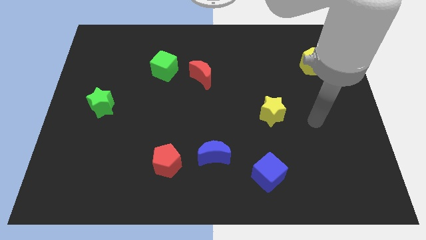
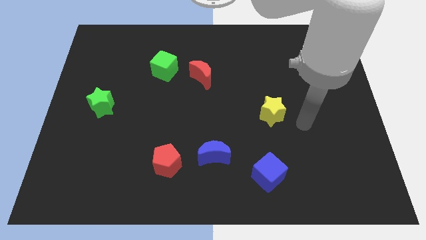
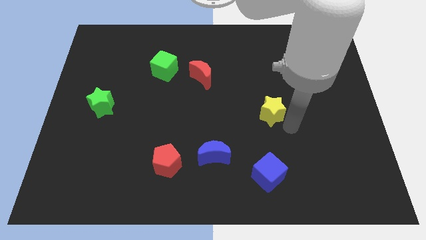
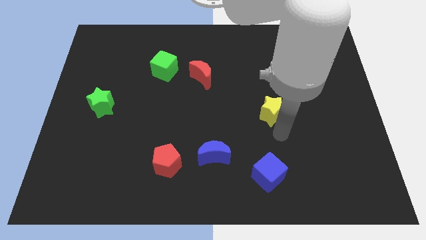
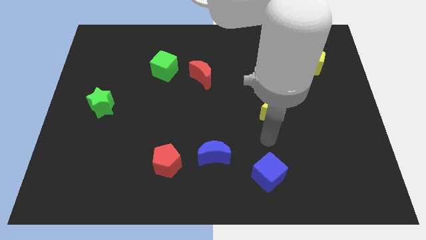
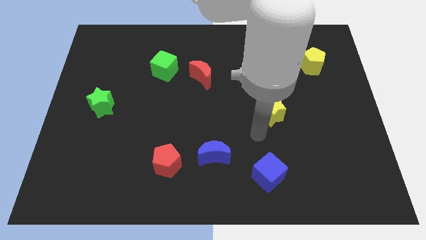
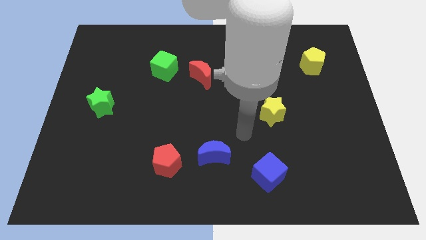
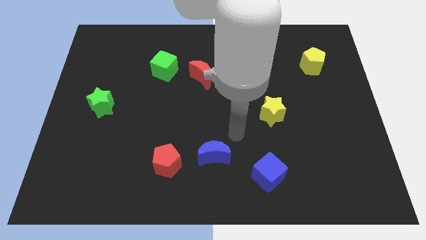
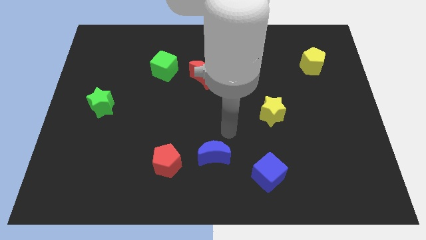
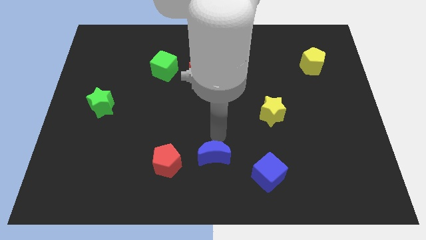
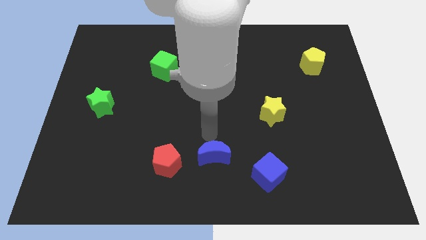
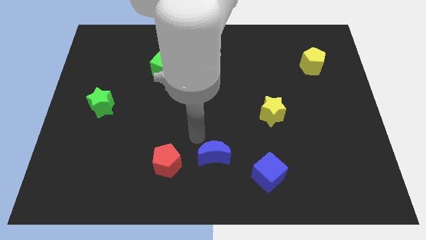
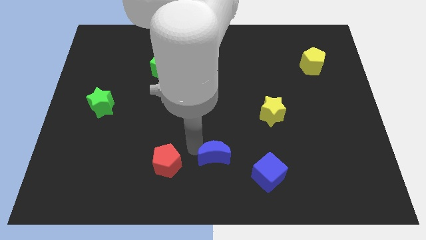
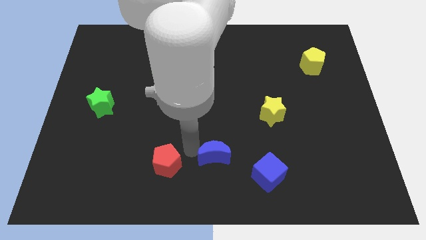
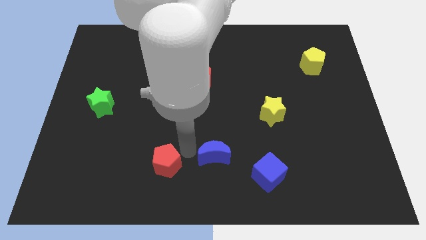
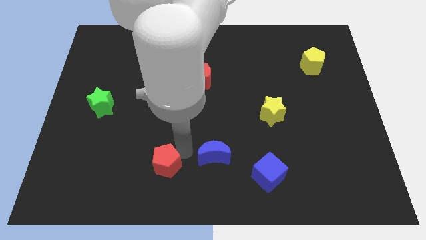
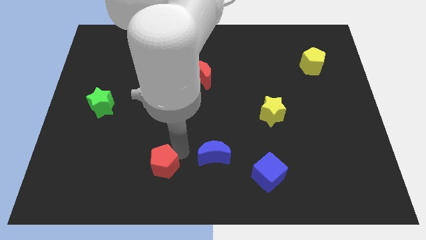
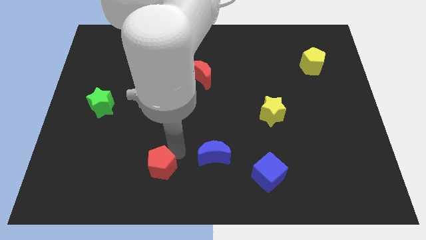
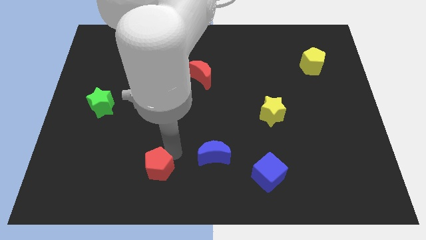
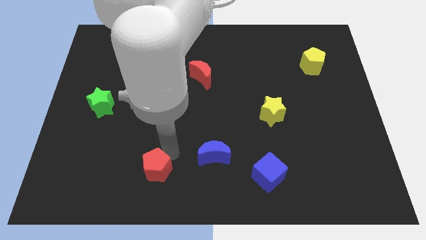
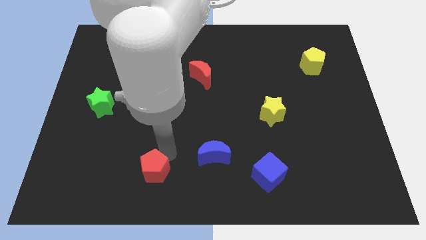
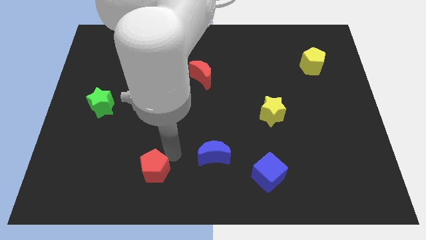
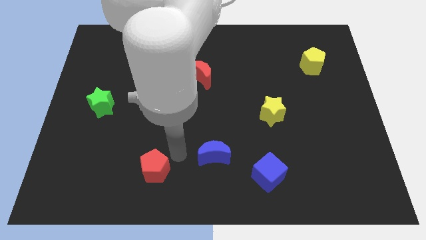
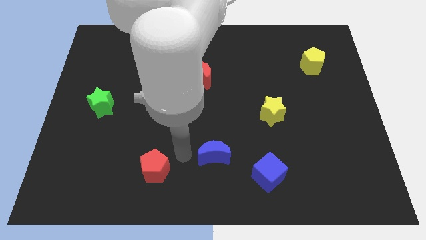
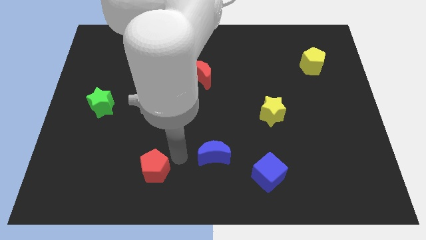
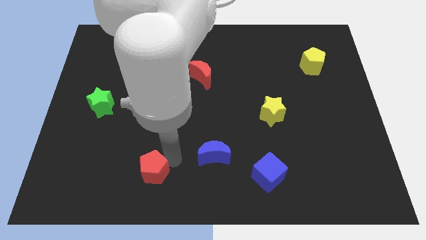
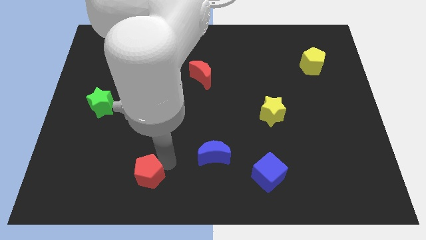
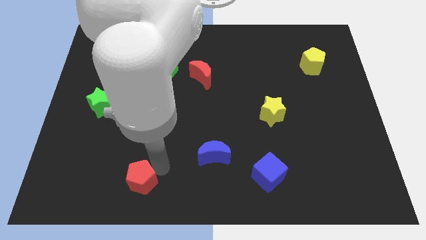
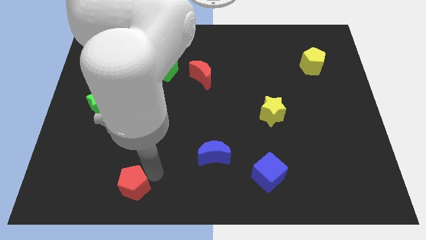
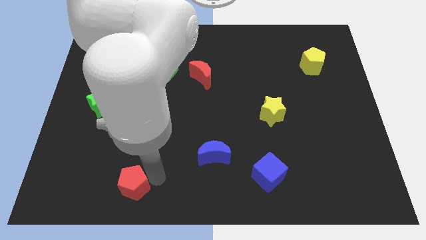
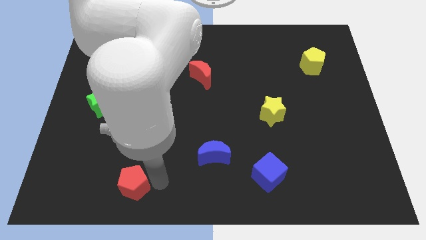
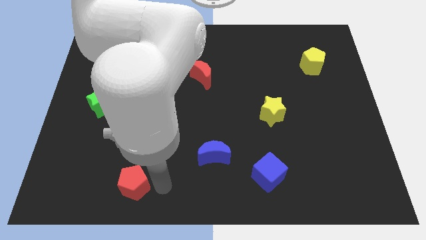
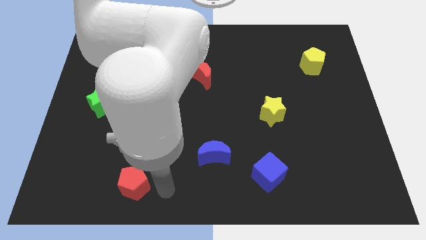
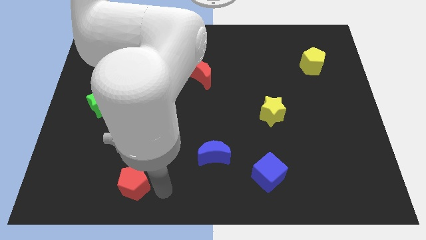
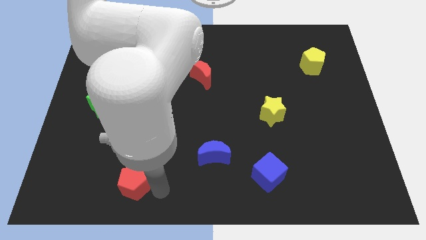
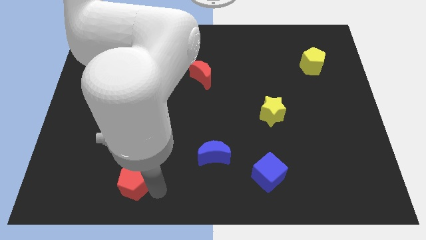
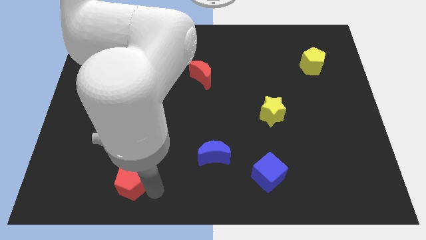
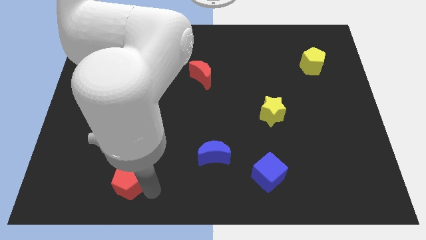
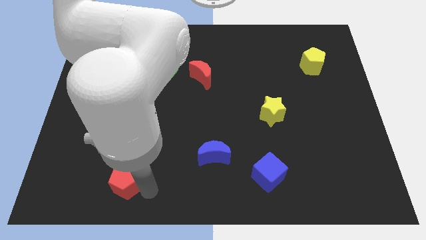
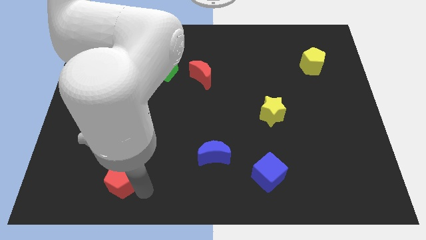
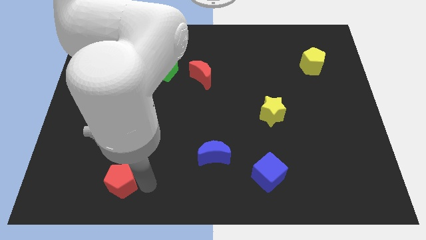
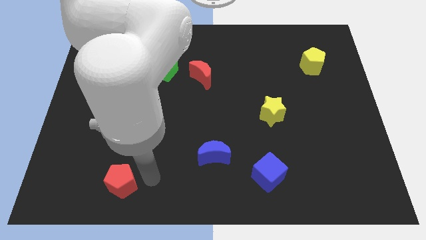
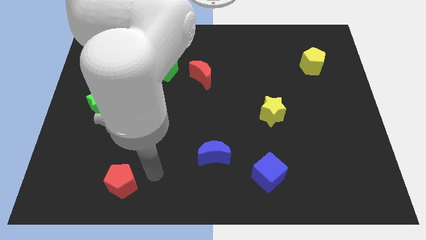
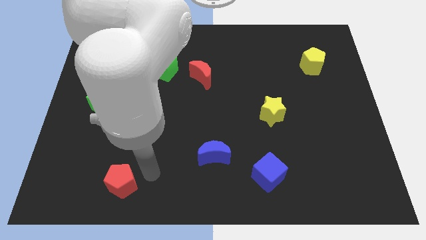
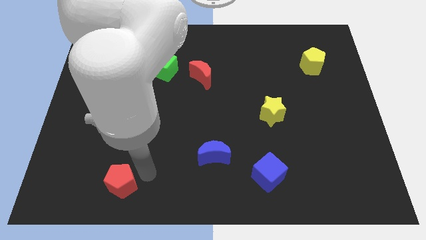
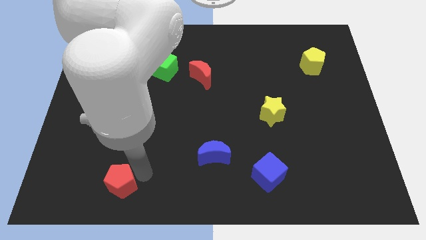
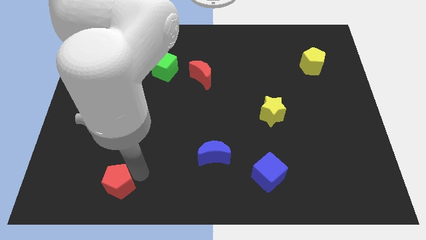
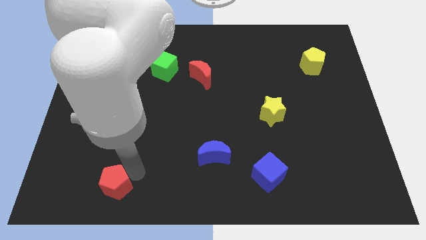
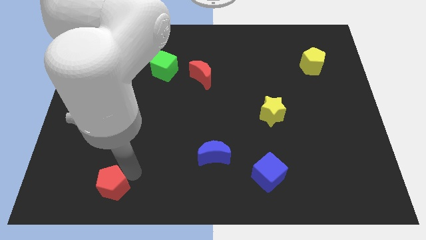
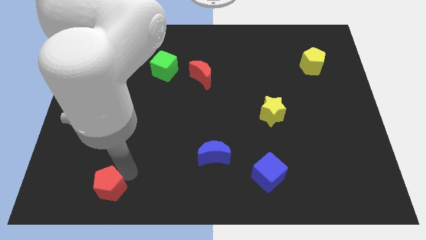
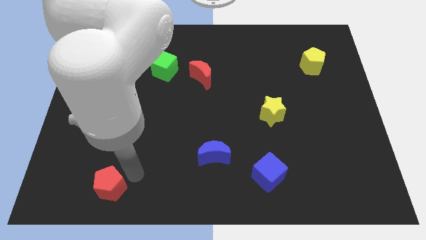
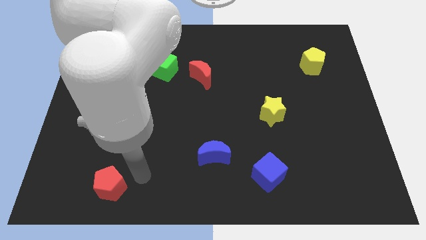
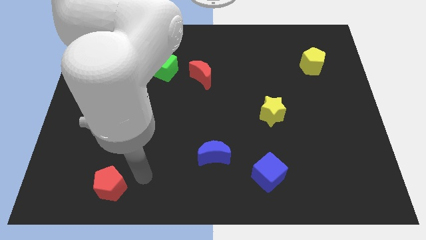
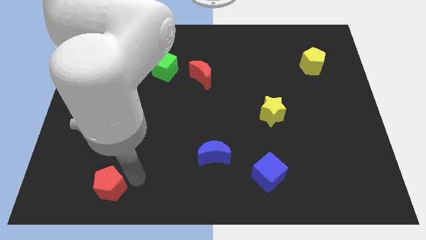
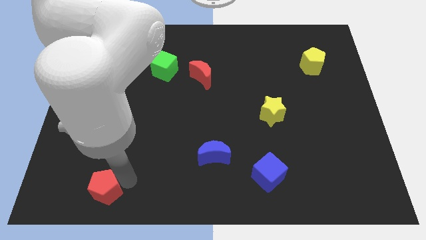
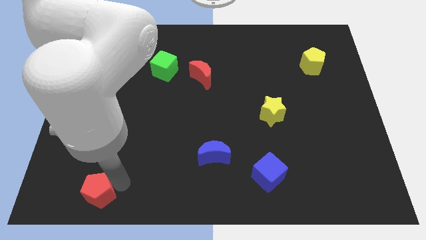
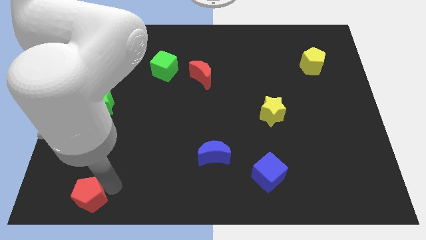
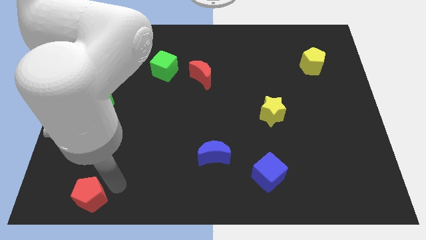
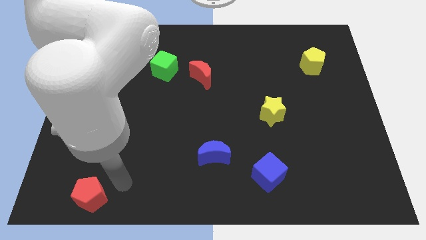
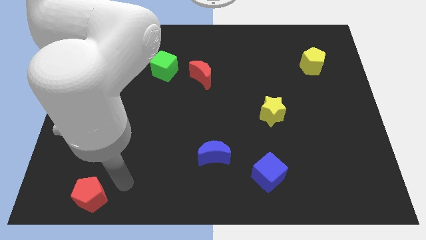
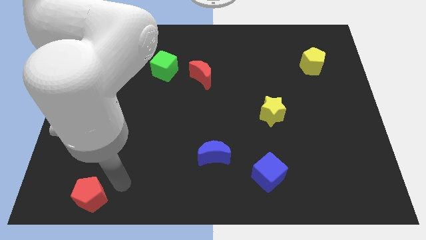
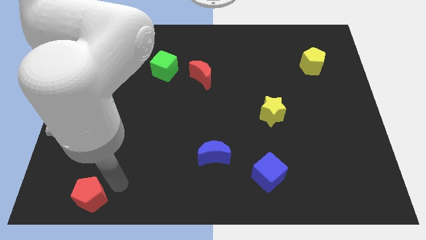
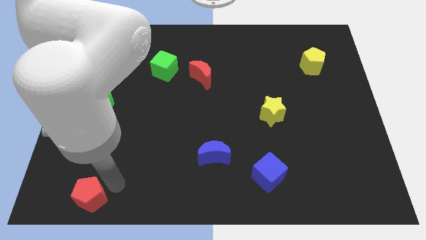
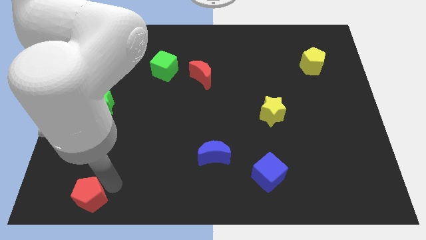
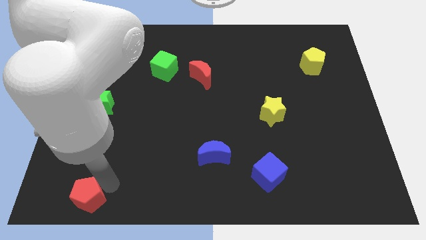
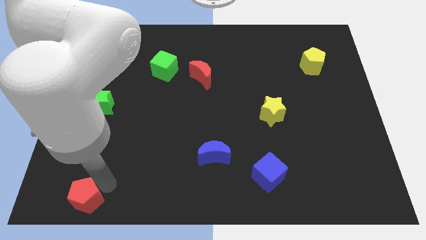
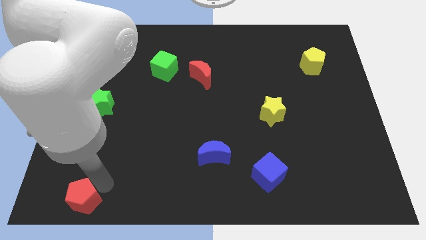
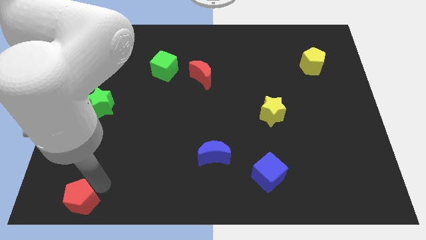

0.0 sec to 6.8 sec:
slide the red pentagon to the bottom left corner
